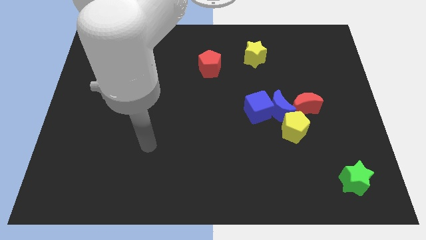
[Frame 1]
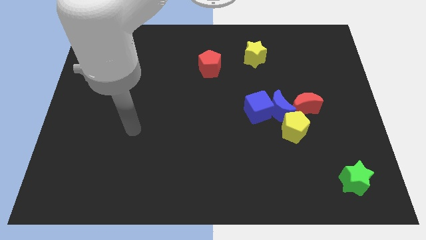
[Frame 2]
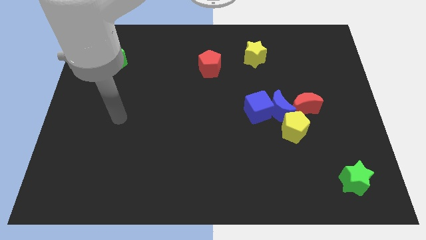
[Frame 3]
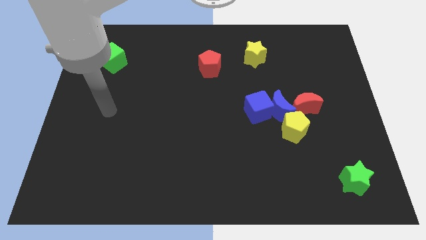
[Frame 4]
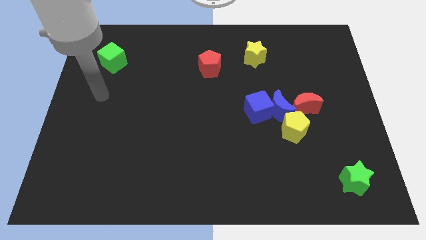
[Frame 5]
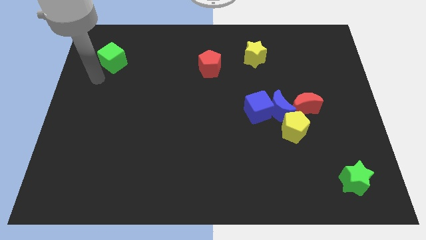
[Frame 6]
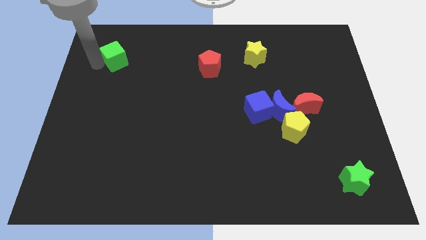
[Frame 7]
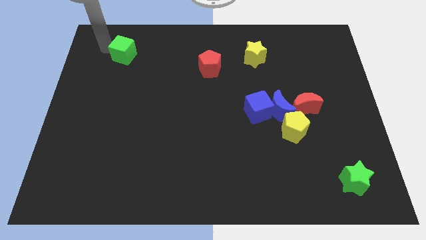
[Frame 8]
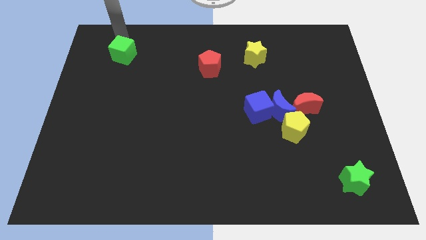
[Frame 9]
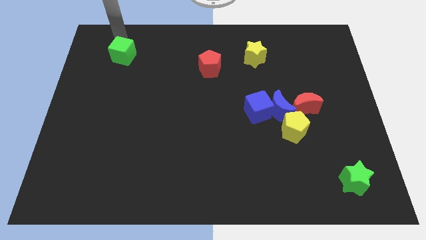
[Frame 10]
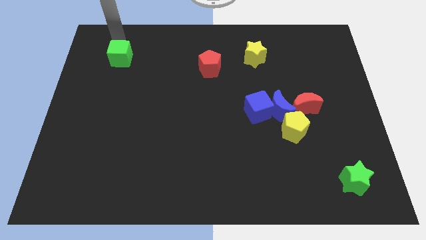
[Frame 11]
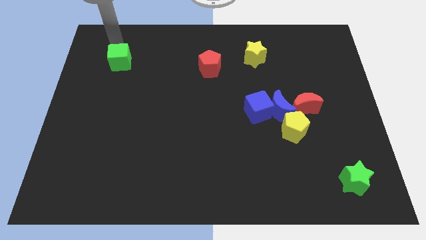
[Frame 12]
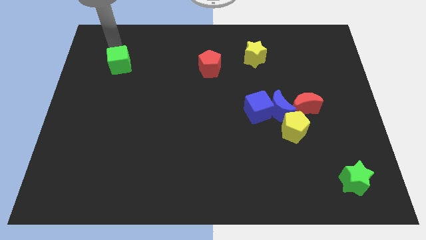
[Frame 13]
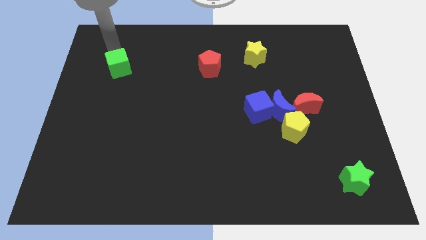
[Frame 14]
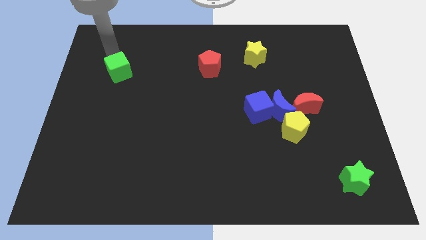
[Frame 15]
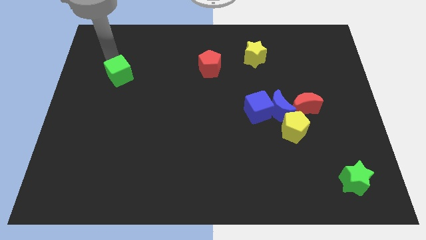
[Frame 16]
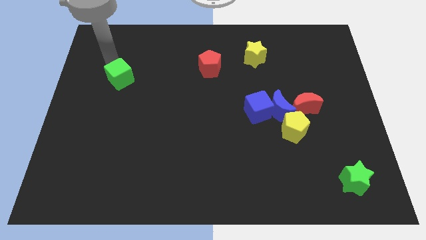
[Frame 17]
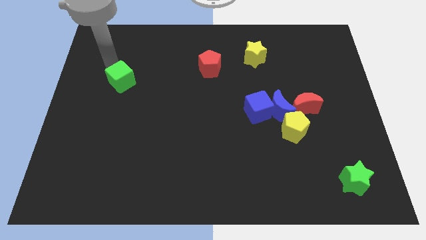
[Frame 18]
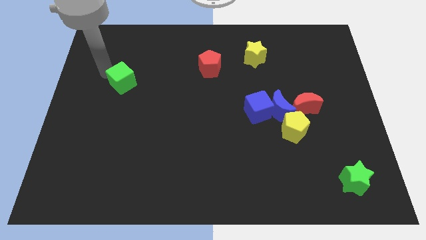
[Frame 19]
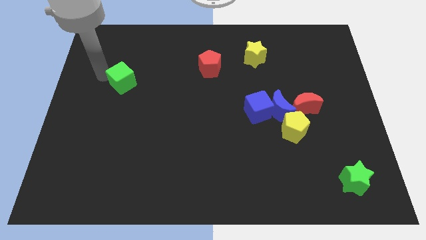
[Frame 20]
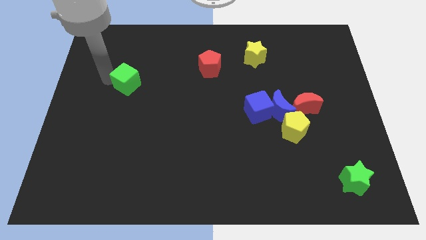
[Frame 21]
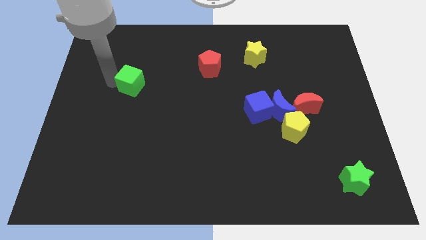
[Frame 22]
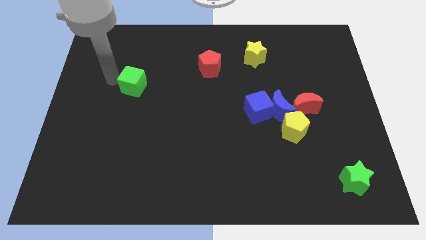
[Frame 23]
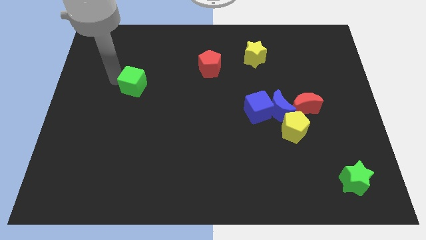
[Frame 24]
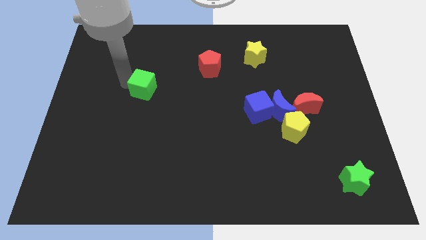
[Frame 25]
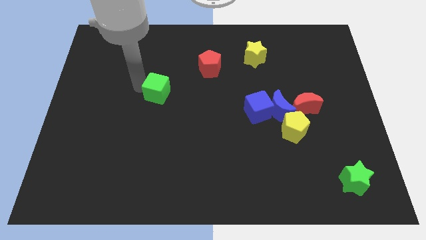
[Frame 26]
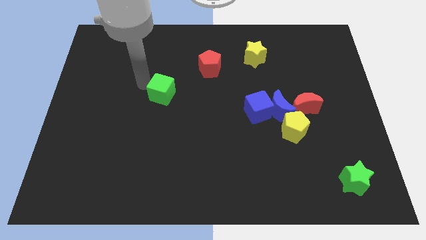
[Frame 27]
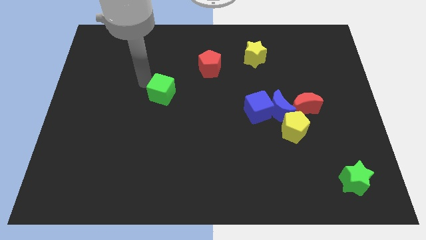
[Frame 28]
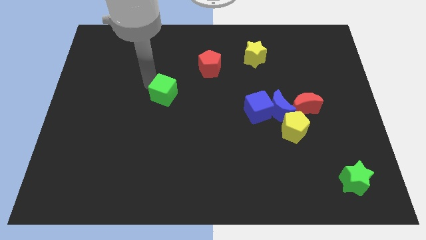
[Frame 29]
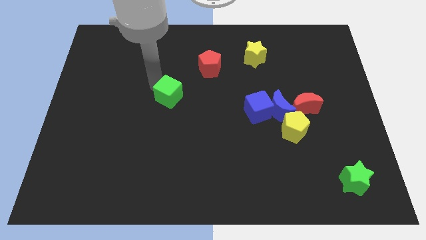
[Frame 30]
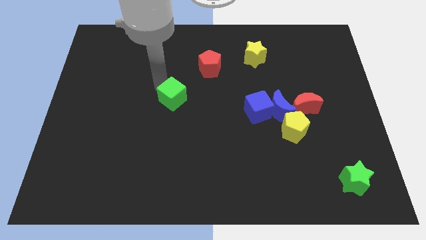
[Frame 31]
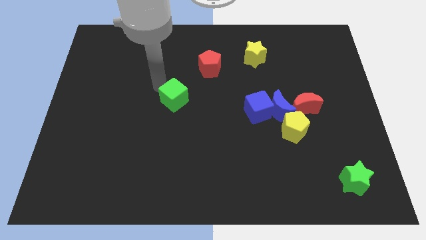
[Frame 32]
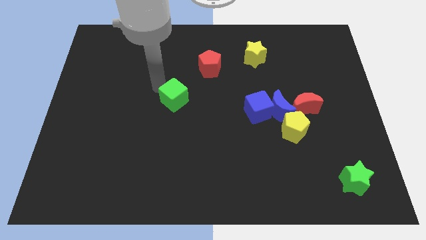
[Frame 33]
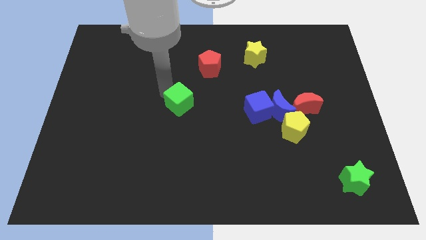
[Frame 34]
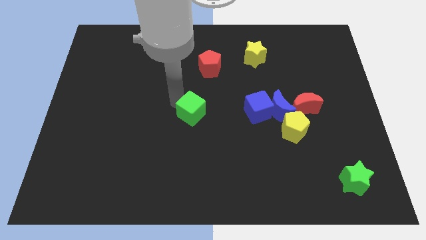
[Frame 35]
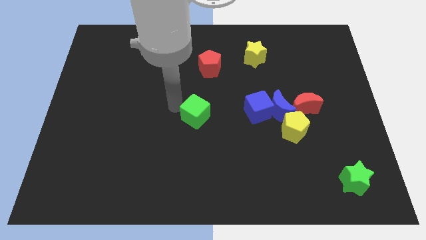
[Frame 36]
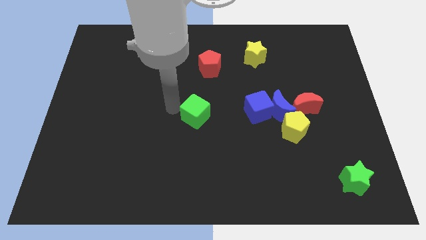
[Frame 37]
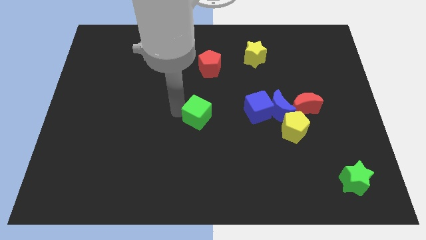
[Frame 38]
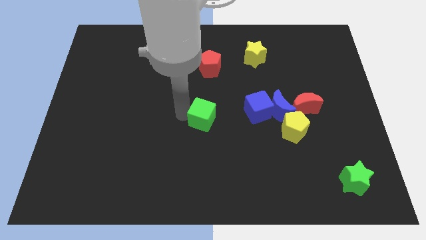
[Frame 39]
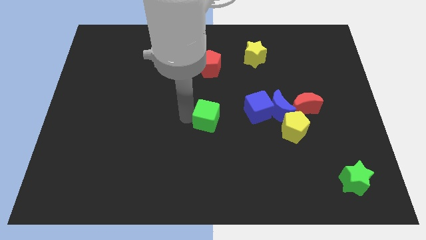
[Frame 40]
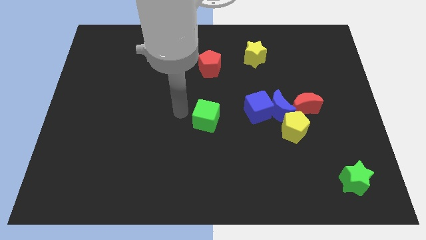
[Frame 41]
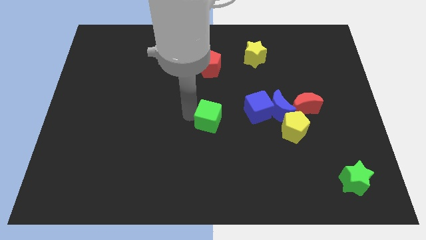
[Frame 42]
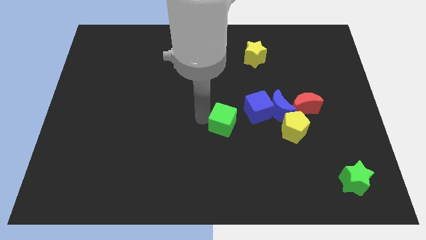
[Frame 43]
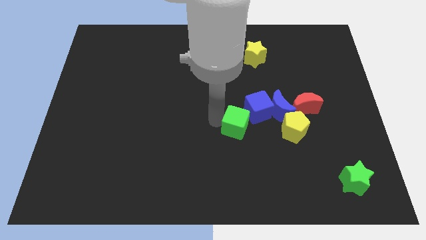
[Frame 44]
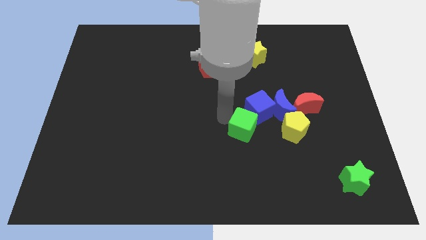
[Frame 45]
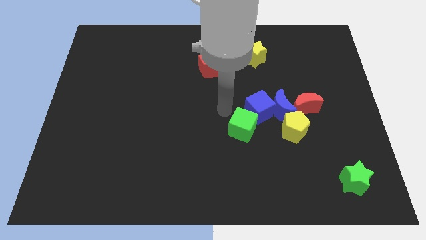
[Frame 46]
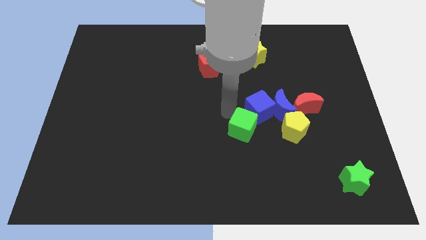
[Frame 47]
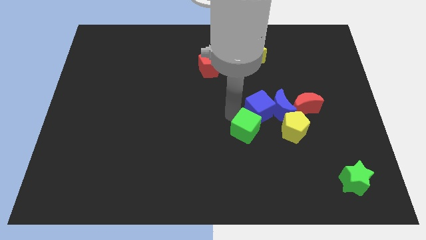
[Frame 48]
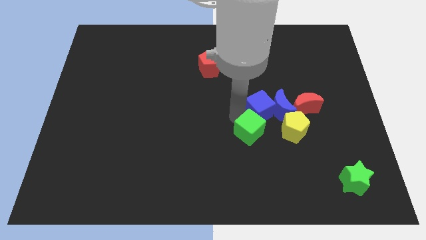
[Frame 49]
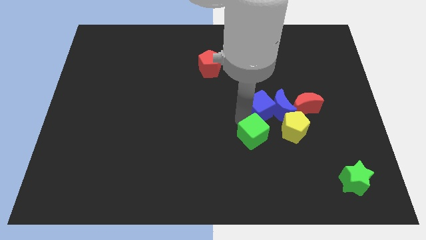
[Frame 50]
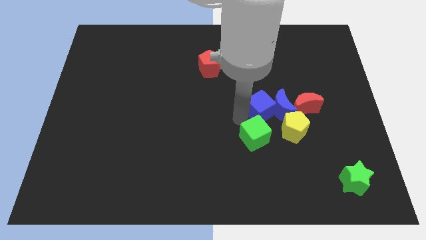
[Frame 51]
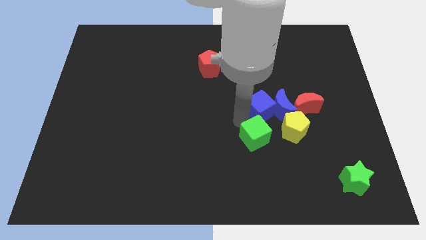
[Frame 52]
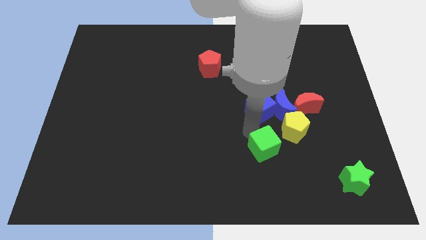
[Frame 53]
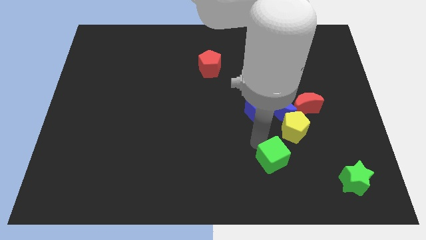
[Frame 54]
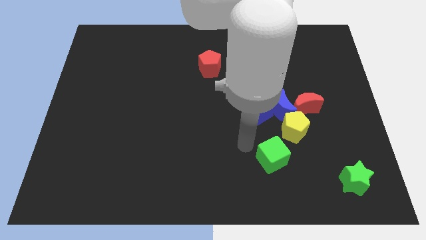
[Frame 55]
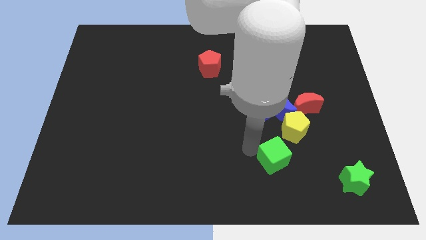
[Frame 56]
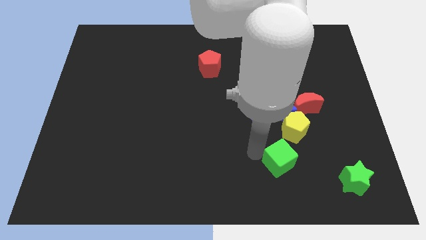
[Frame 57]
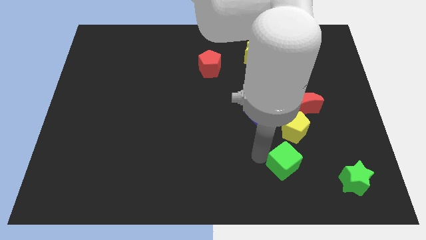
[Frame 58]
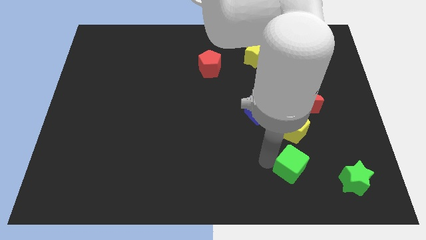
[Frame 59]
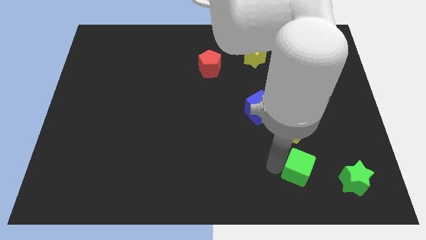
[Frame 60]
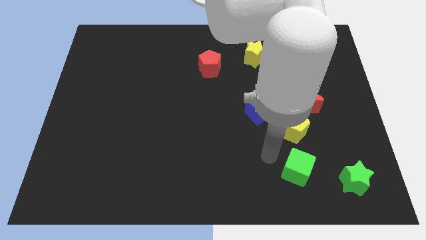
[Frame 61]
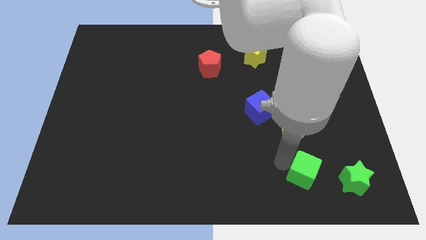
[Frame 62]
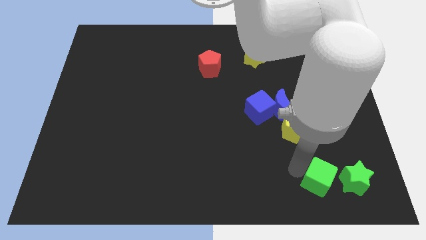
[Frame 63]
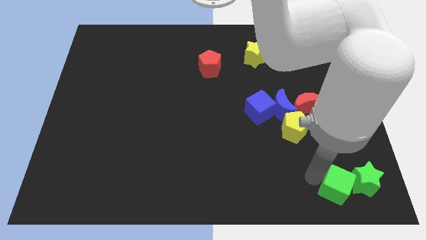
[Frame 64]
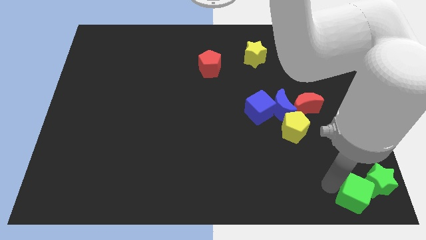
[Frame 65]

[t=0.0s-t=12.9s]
put the green cube to the bottom right of the board
